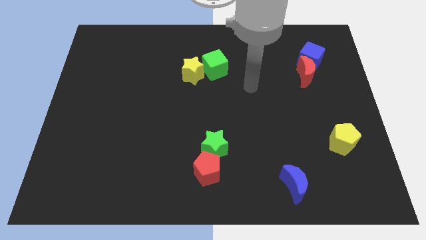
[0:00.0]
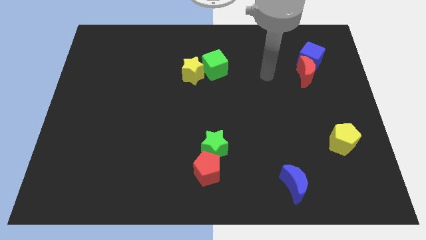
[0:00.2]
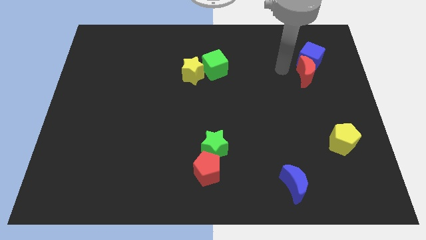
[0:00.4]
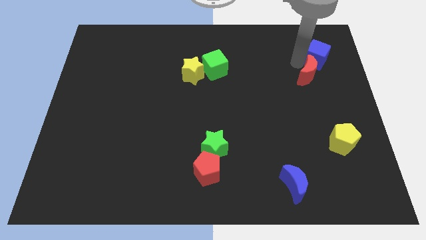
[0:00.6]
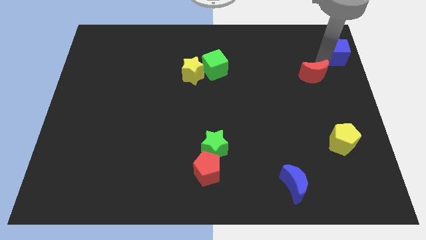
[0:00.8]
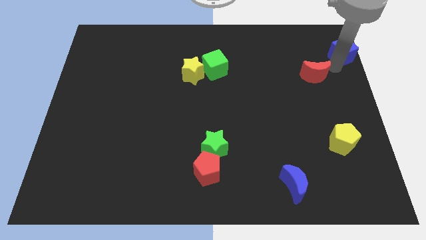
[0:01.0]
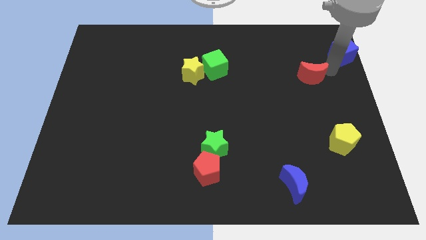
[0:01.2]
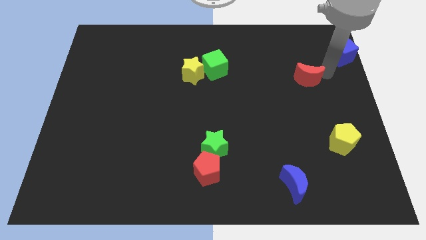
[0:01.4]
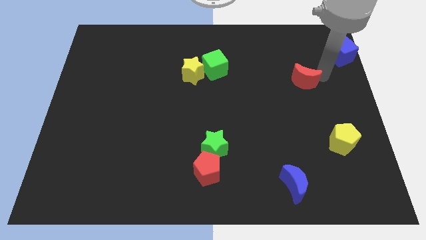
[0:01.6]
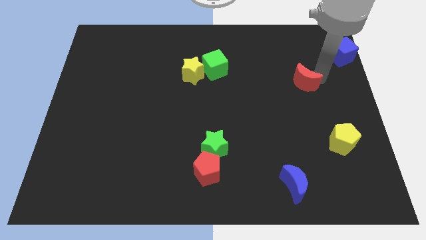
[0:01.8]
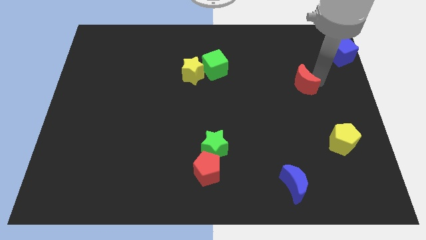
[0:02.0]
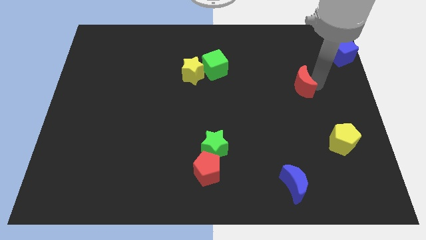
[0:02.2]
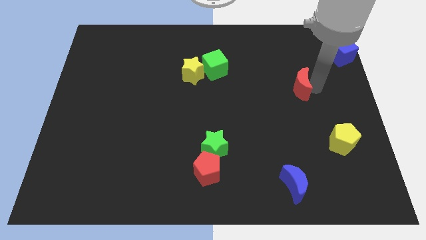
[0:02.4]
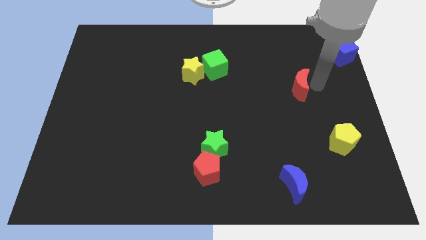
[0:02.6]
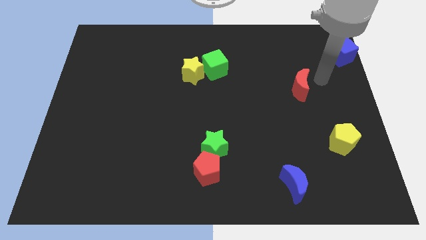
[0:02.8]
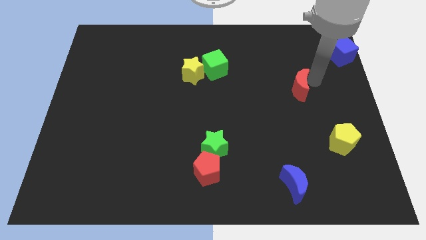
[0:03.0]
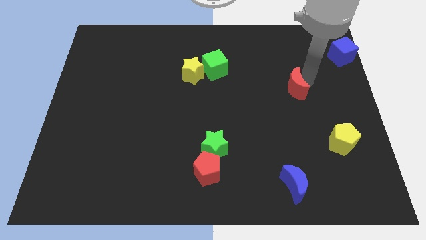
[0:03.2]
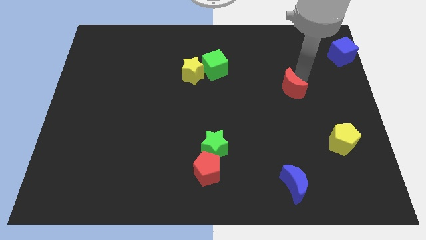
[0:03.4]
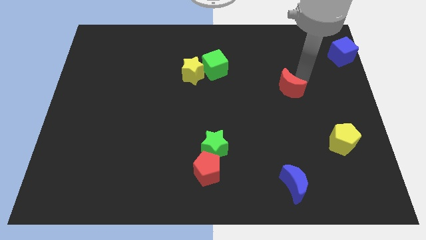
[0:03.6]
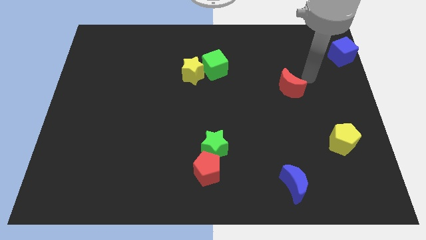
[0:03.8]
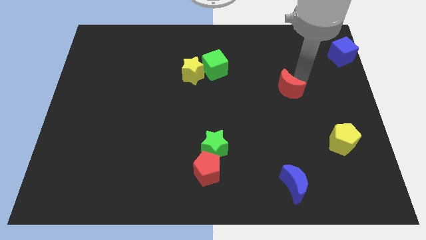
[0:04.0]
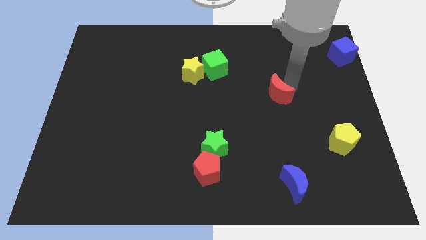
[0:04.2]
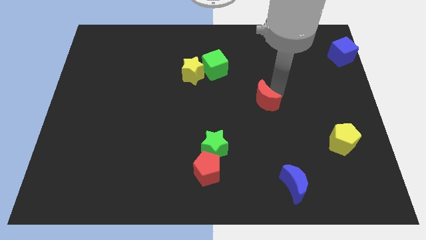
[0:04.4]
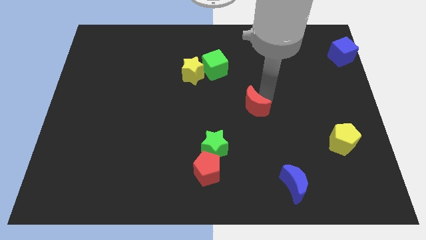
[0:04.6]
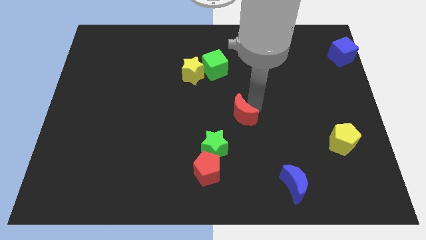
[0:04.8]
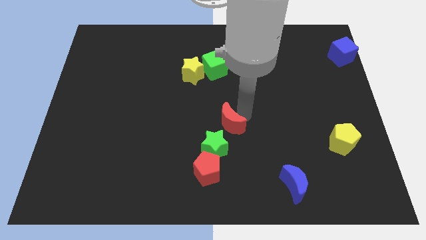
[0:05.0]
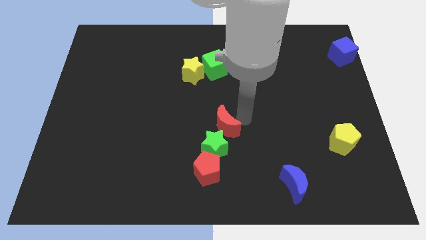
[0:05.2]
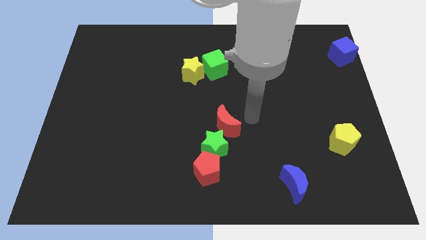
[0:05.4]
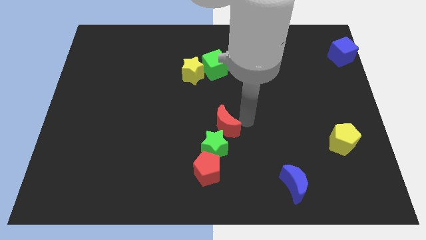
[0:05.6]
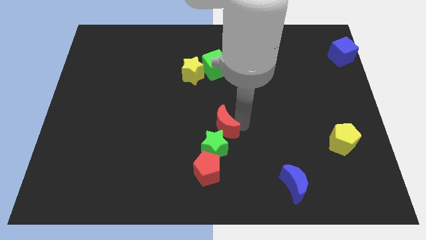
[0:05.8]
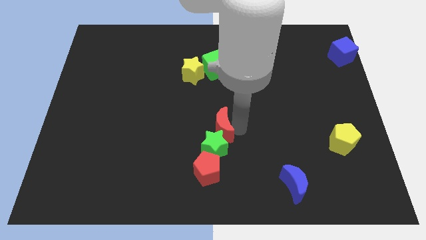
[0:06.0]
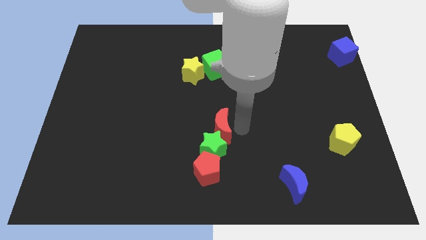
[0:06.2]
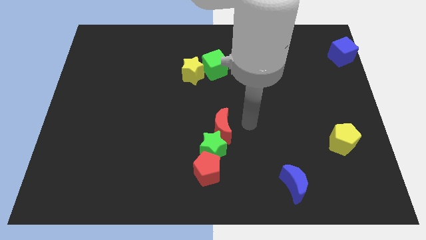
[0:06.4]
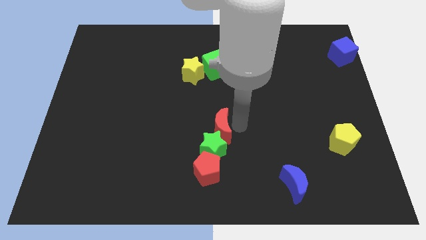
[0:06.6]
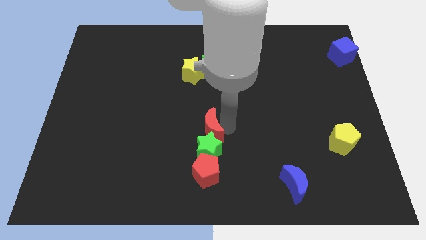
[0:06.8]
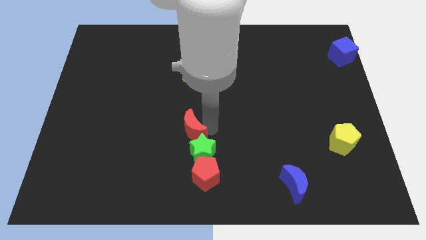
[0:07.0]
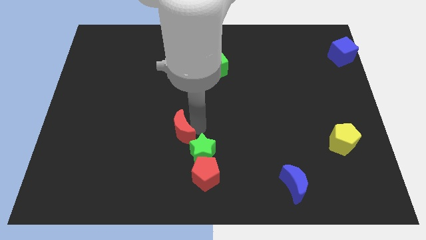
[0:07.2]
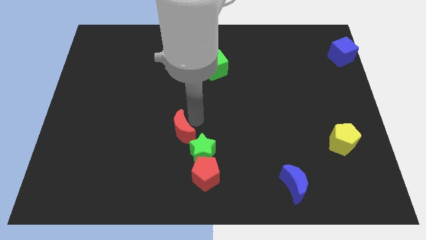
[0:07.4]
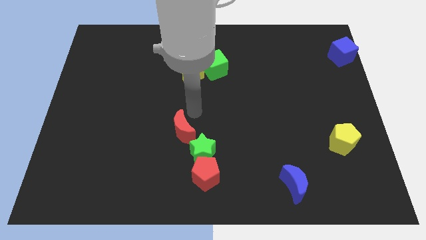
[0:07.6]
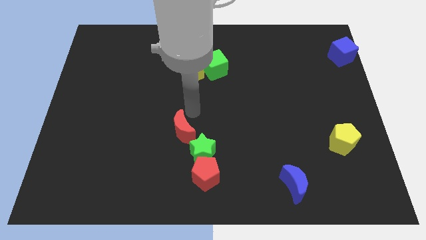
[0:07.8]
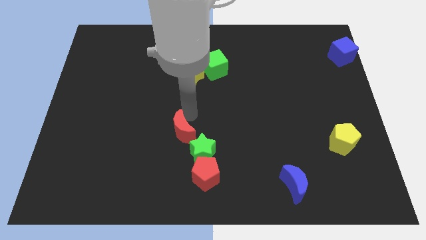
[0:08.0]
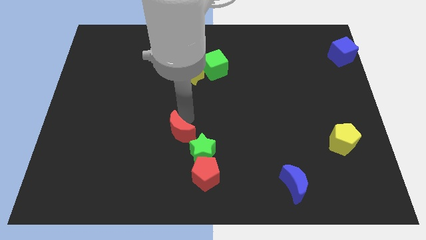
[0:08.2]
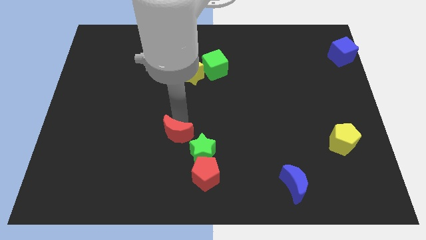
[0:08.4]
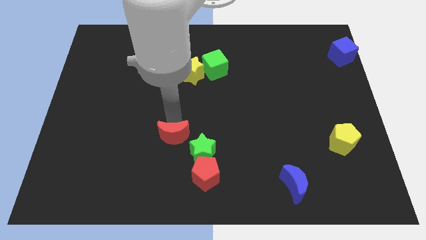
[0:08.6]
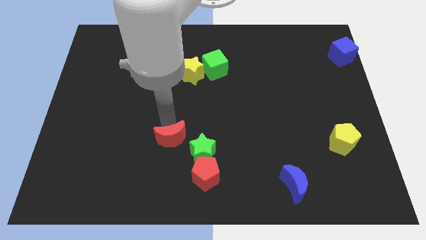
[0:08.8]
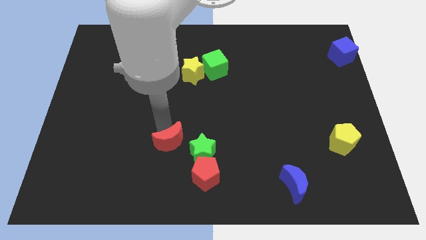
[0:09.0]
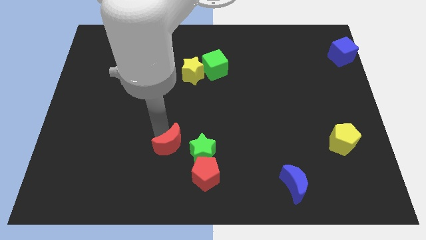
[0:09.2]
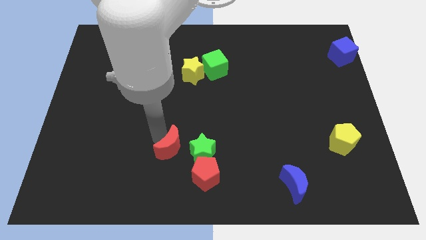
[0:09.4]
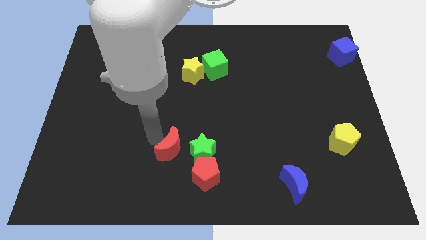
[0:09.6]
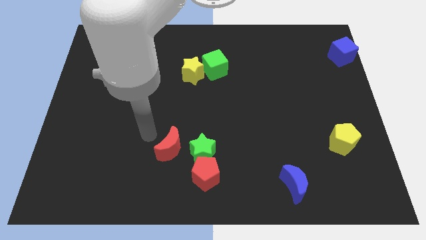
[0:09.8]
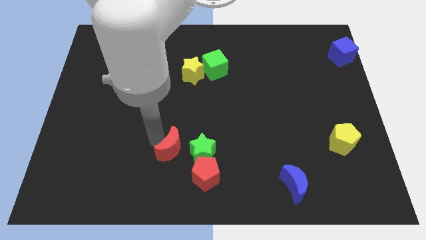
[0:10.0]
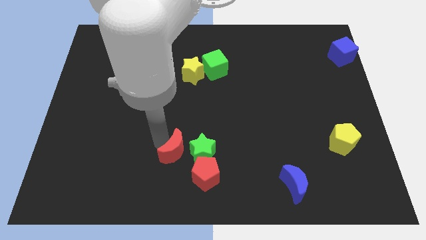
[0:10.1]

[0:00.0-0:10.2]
push the red moon to the bottom left side of the green star

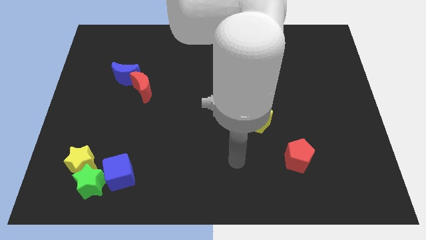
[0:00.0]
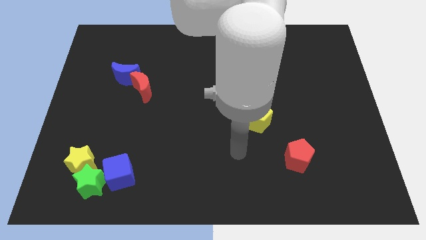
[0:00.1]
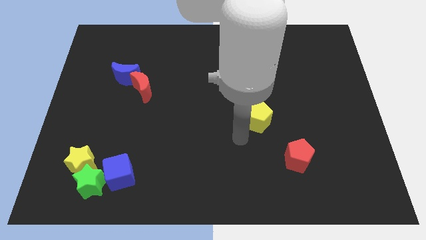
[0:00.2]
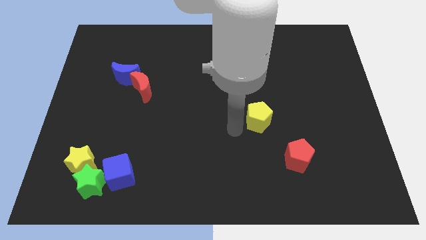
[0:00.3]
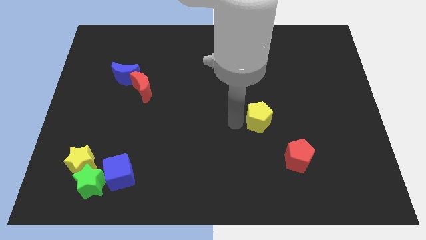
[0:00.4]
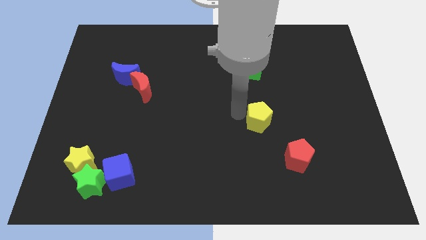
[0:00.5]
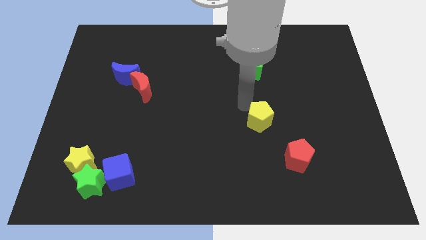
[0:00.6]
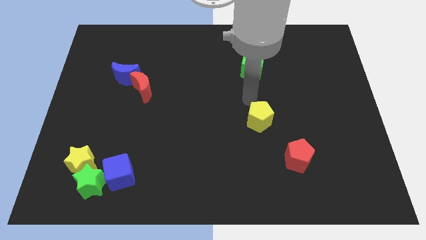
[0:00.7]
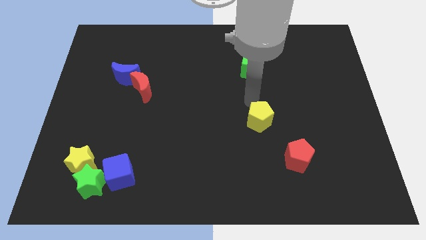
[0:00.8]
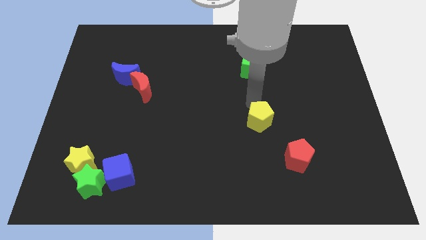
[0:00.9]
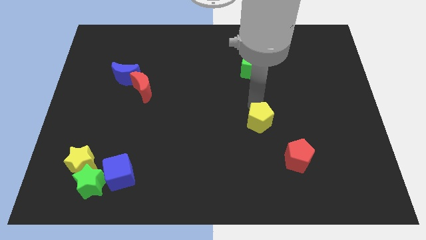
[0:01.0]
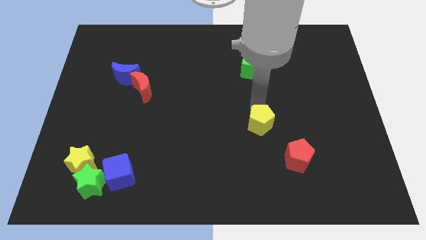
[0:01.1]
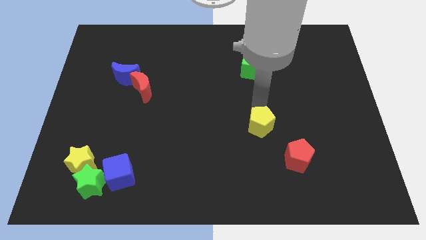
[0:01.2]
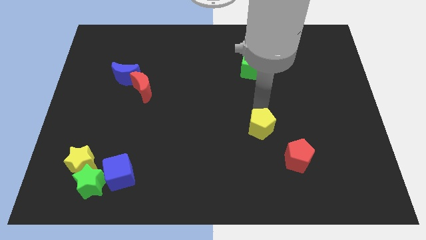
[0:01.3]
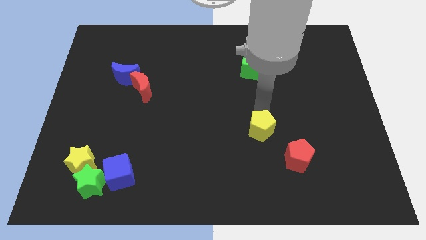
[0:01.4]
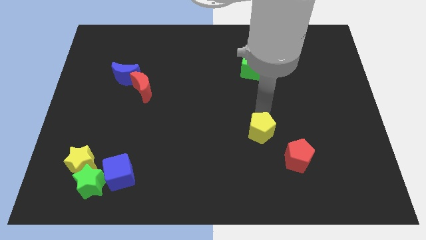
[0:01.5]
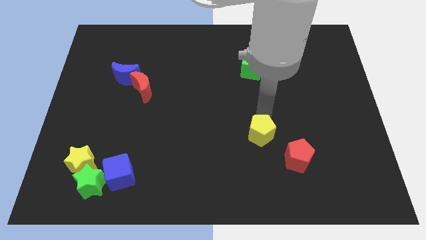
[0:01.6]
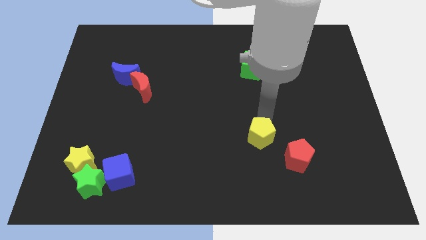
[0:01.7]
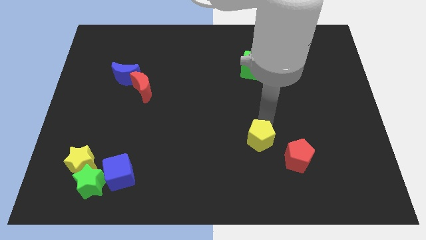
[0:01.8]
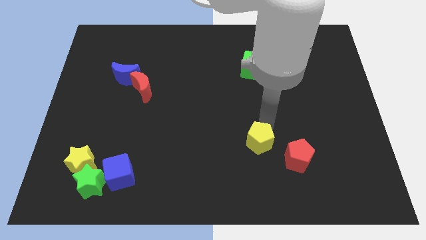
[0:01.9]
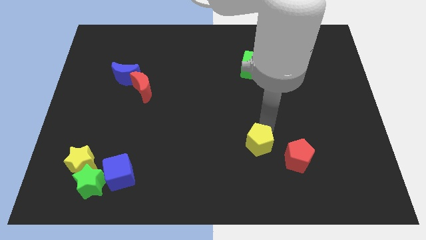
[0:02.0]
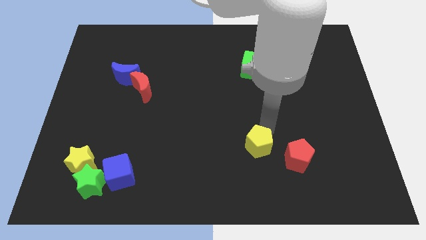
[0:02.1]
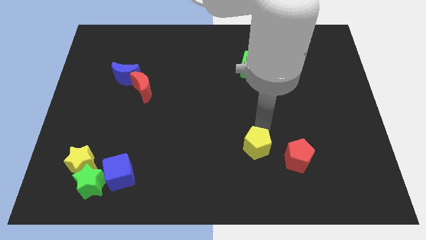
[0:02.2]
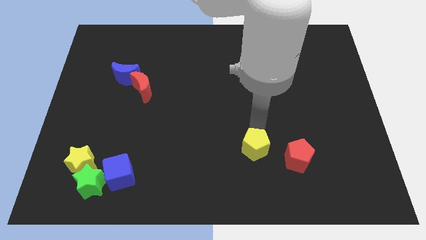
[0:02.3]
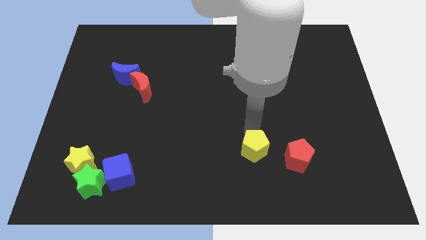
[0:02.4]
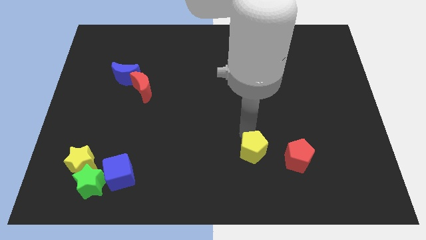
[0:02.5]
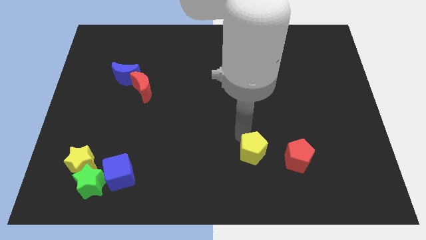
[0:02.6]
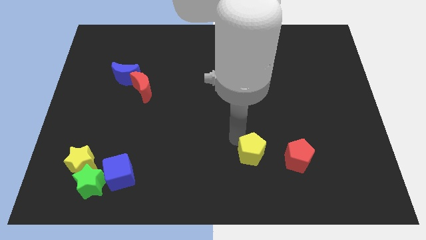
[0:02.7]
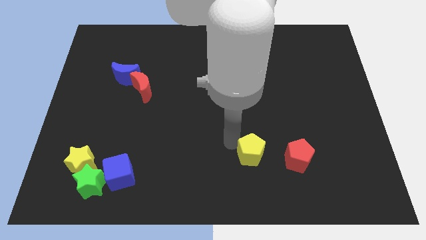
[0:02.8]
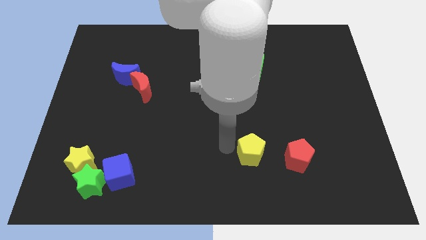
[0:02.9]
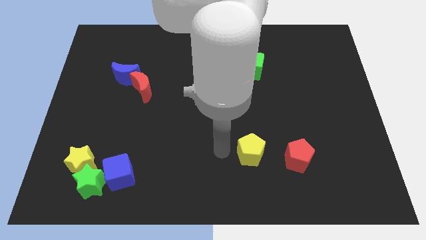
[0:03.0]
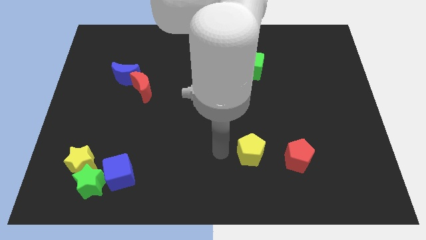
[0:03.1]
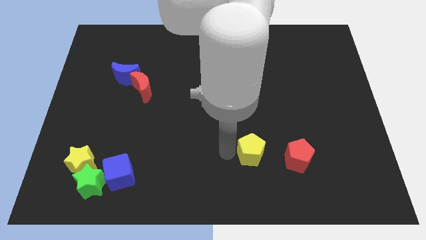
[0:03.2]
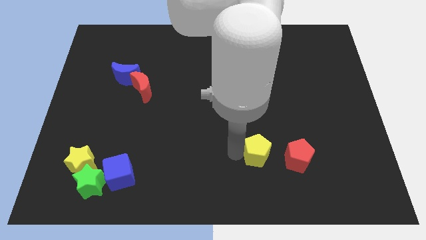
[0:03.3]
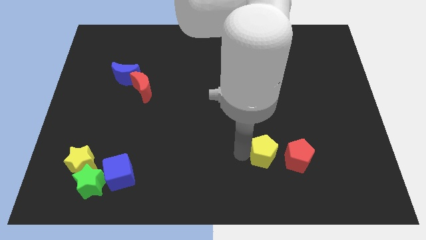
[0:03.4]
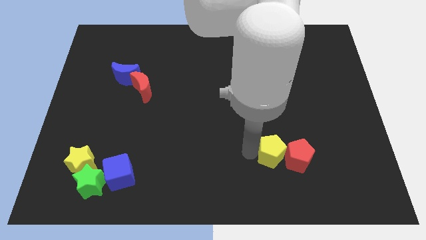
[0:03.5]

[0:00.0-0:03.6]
push the yellow pentagon to the bottom left side of the red pentagon
